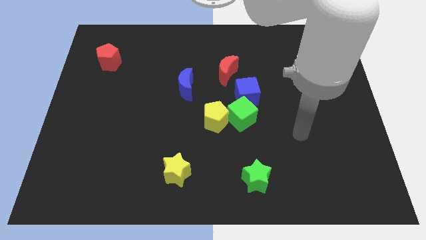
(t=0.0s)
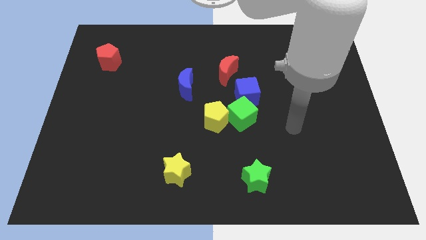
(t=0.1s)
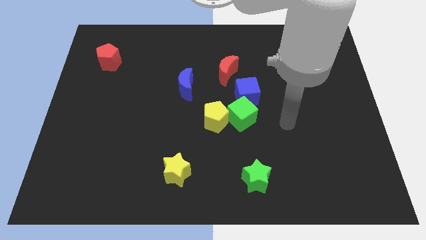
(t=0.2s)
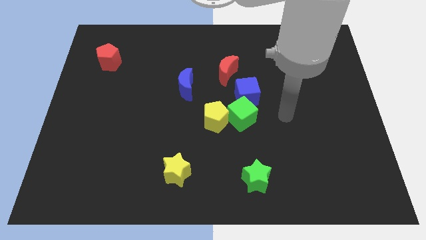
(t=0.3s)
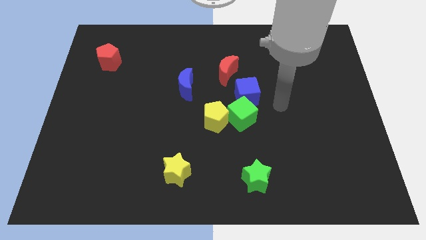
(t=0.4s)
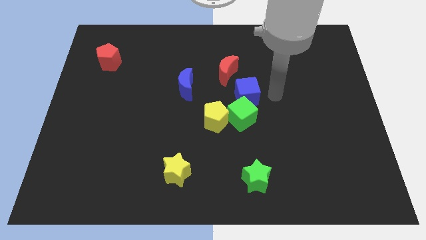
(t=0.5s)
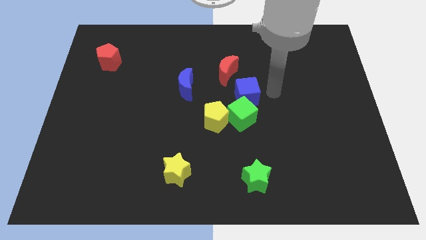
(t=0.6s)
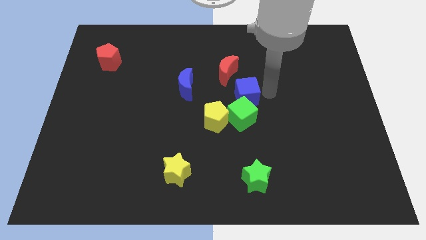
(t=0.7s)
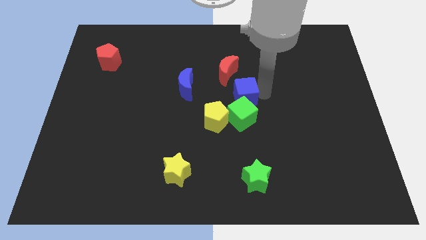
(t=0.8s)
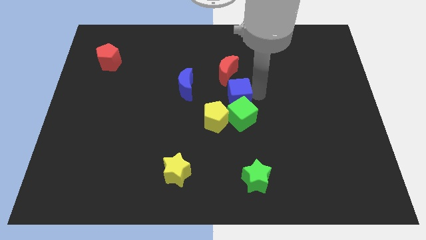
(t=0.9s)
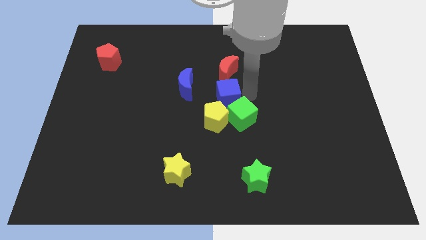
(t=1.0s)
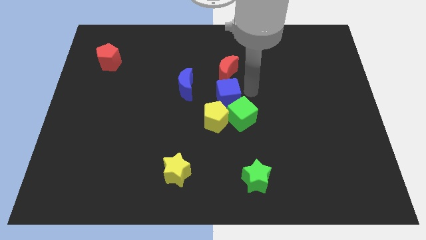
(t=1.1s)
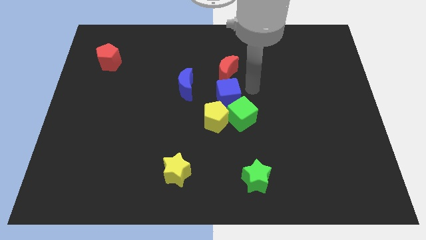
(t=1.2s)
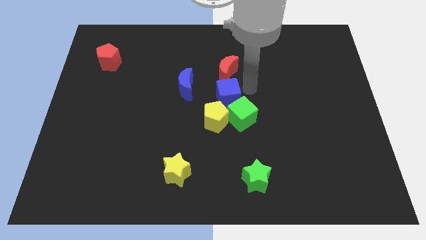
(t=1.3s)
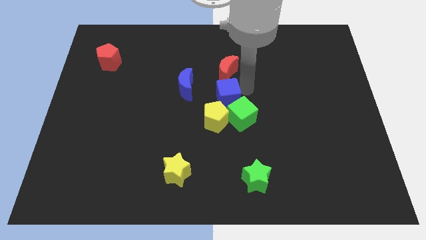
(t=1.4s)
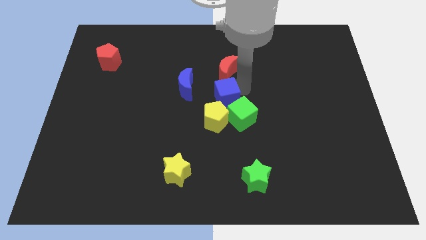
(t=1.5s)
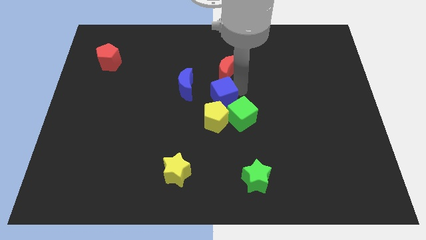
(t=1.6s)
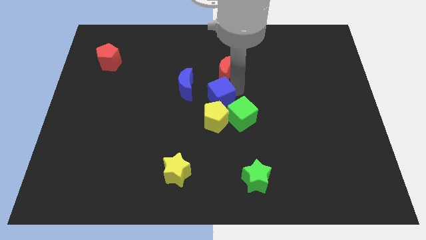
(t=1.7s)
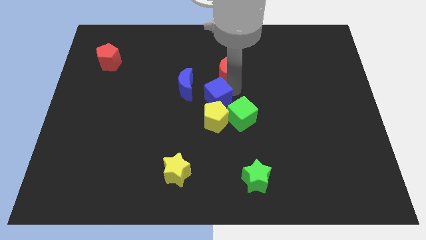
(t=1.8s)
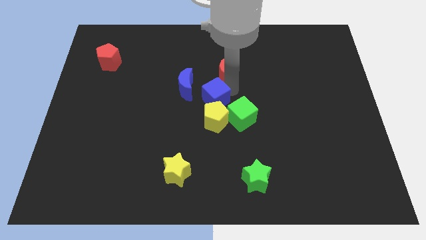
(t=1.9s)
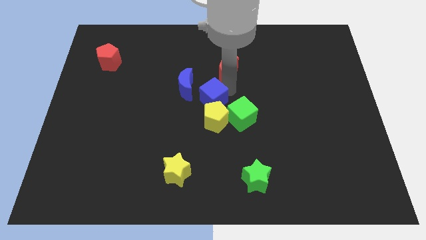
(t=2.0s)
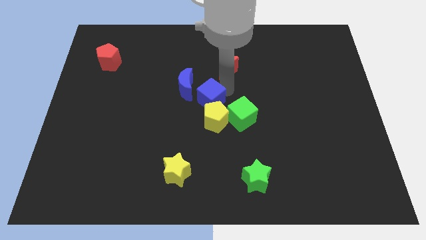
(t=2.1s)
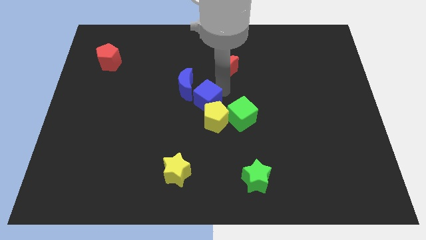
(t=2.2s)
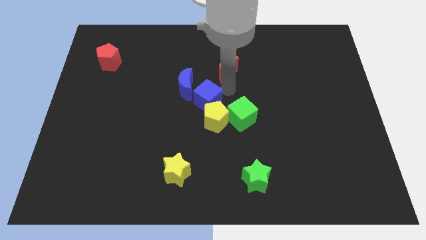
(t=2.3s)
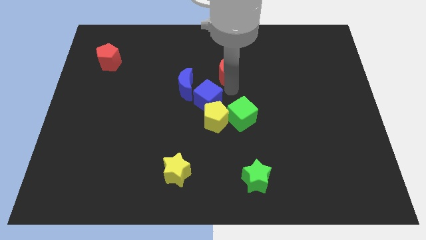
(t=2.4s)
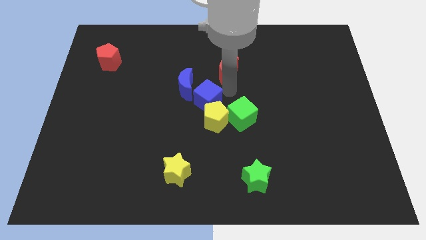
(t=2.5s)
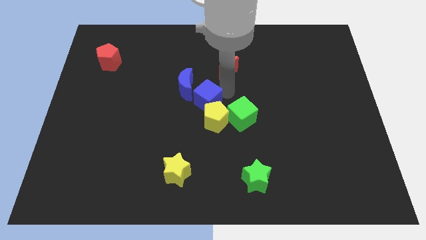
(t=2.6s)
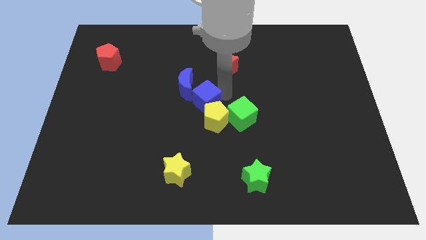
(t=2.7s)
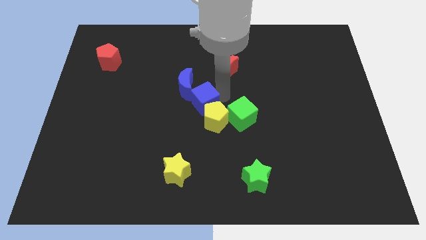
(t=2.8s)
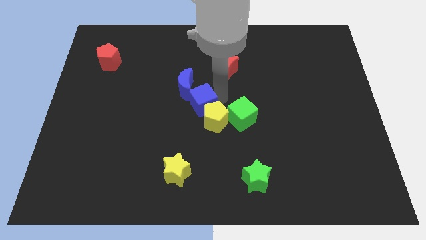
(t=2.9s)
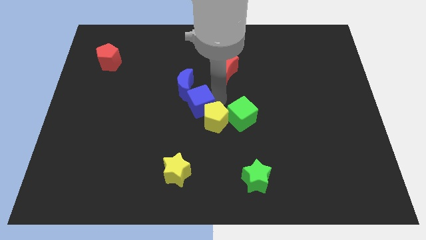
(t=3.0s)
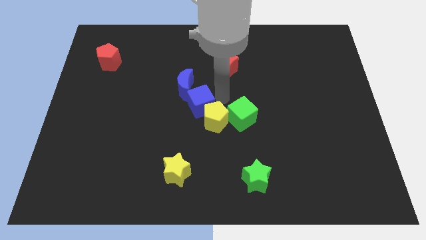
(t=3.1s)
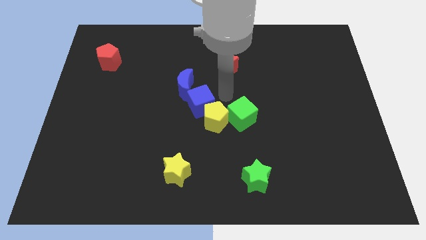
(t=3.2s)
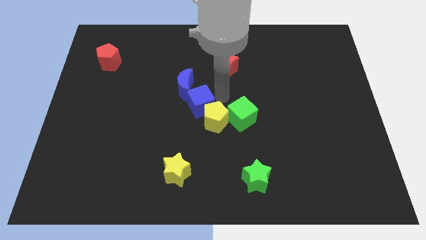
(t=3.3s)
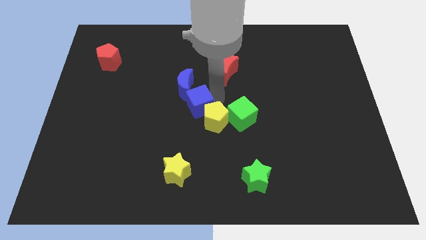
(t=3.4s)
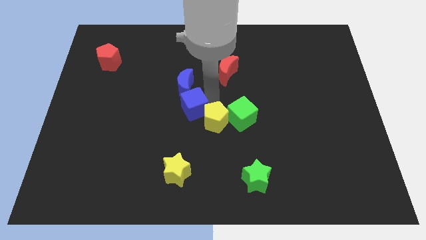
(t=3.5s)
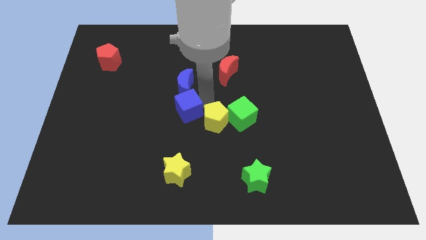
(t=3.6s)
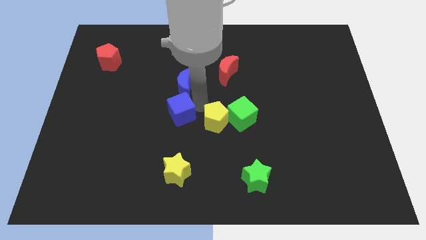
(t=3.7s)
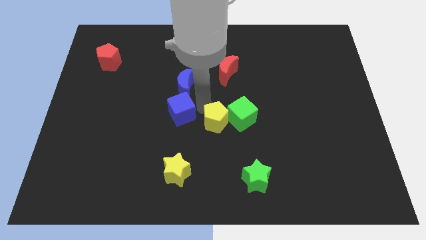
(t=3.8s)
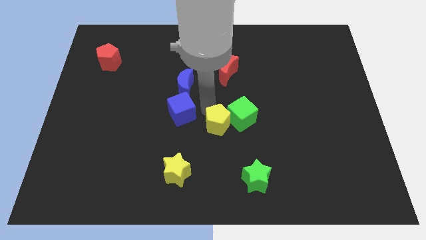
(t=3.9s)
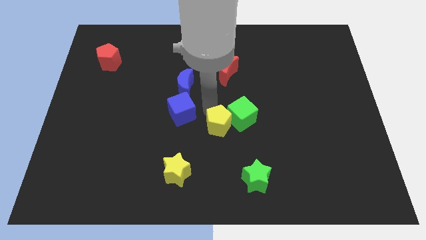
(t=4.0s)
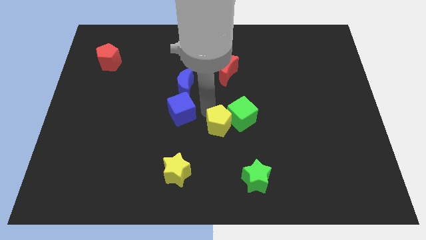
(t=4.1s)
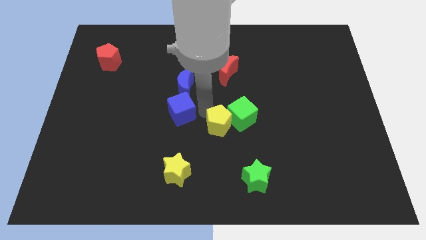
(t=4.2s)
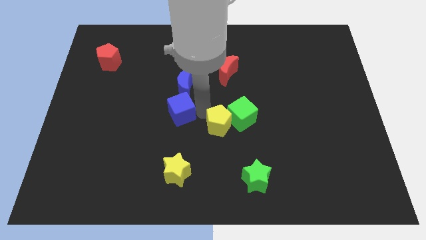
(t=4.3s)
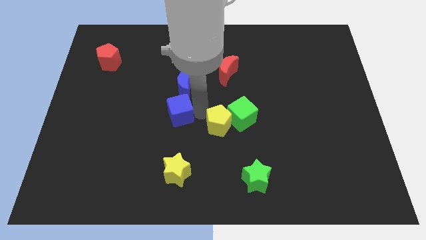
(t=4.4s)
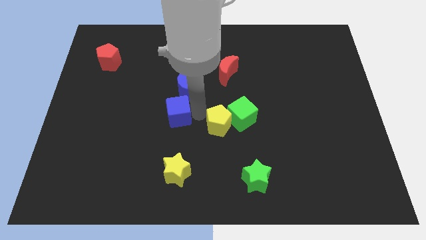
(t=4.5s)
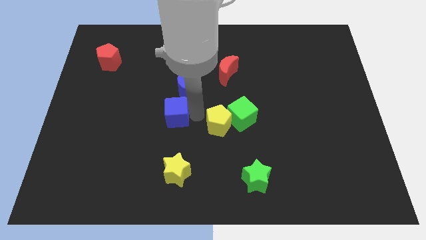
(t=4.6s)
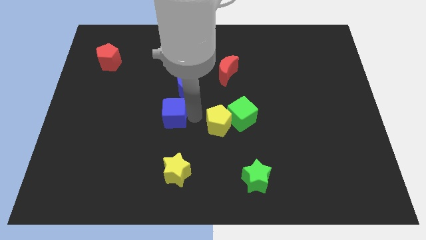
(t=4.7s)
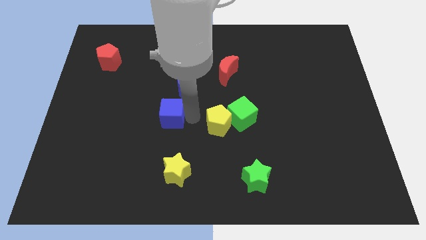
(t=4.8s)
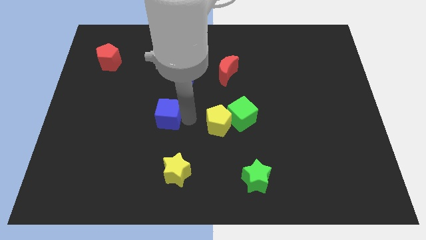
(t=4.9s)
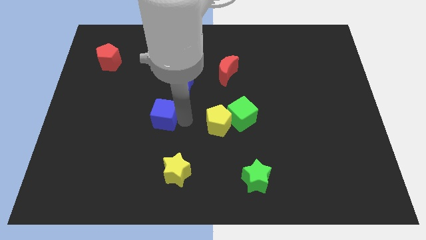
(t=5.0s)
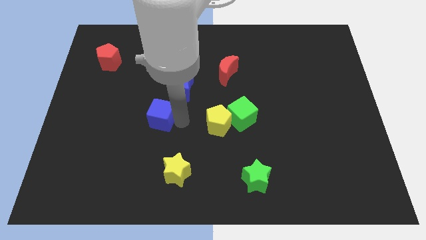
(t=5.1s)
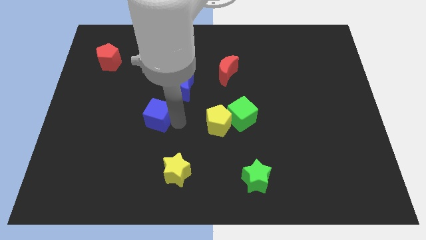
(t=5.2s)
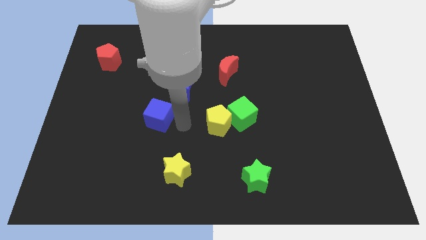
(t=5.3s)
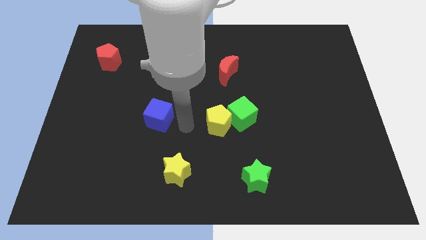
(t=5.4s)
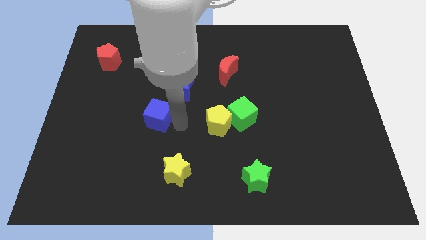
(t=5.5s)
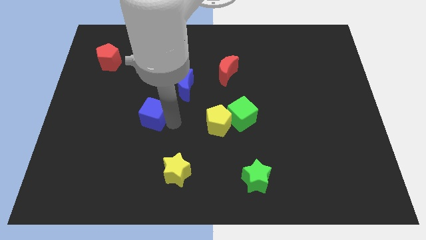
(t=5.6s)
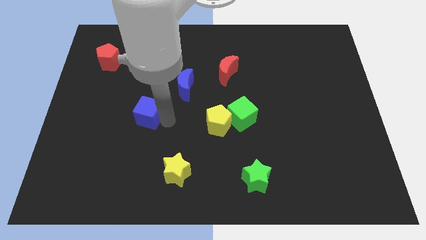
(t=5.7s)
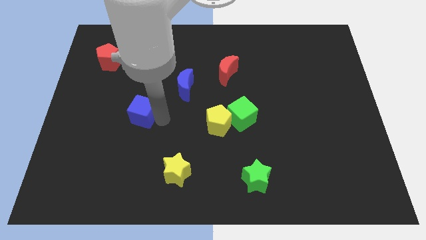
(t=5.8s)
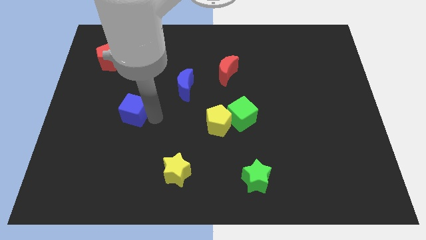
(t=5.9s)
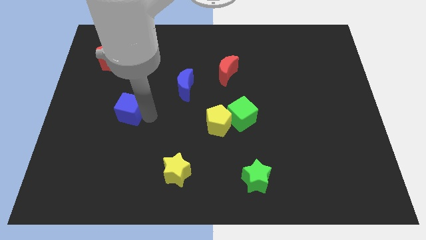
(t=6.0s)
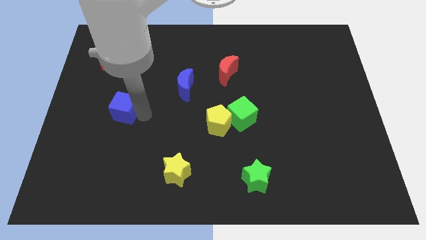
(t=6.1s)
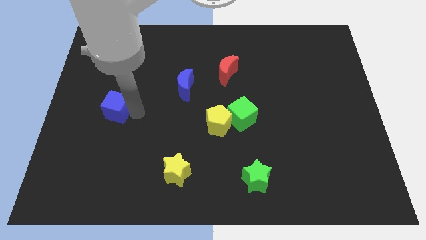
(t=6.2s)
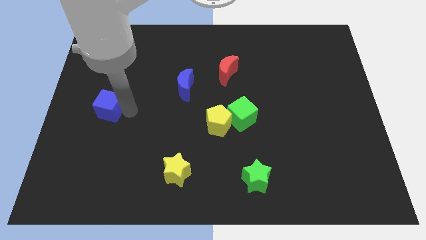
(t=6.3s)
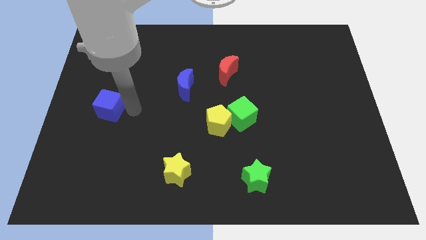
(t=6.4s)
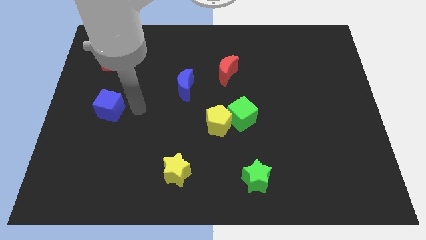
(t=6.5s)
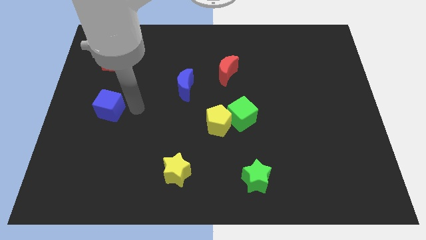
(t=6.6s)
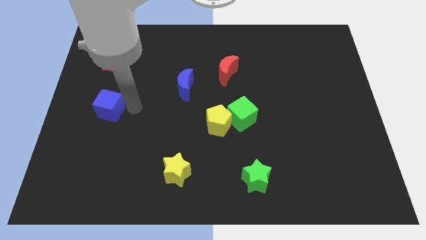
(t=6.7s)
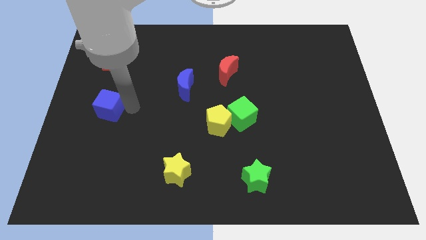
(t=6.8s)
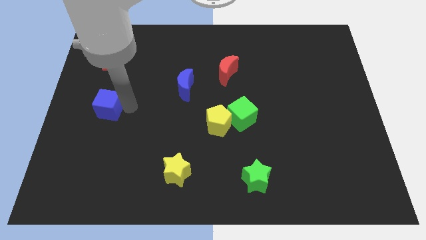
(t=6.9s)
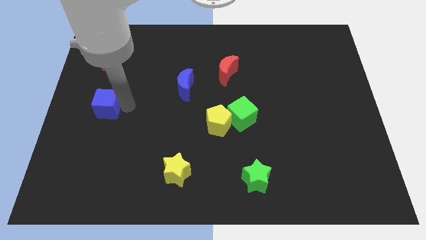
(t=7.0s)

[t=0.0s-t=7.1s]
put the blue cube to the left side

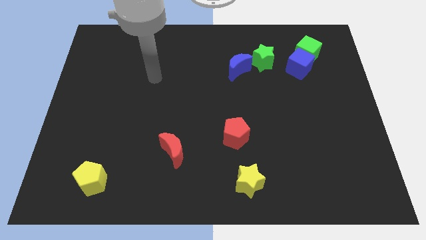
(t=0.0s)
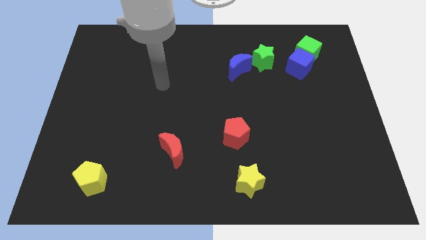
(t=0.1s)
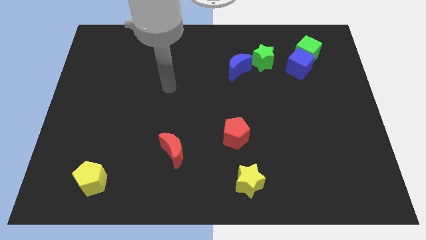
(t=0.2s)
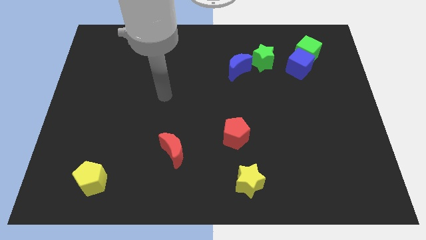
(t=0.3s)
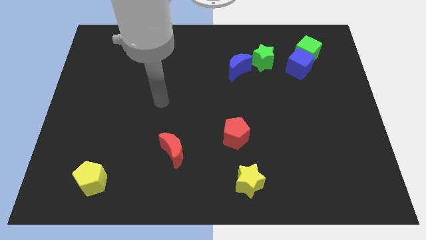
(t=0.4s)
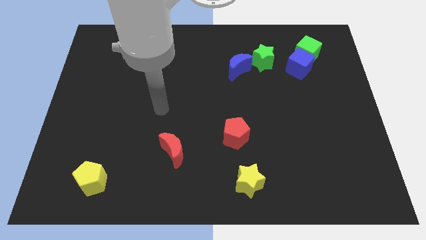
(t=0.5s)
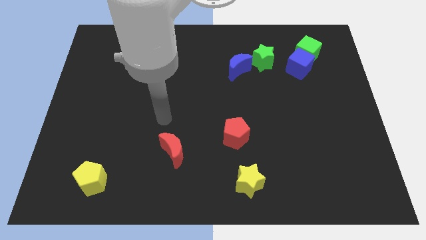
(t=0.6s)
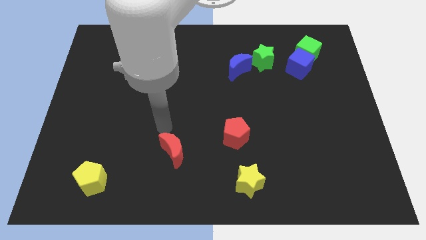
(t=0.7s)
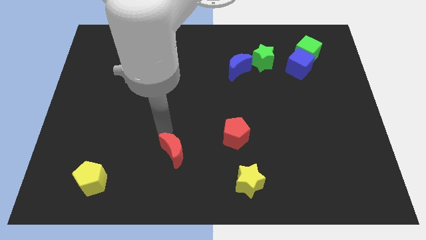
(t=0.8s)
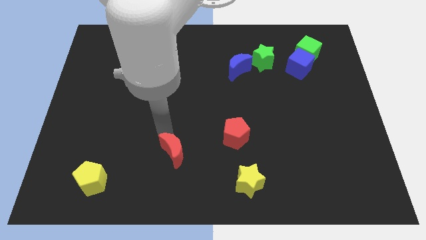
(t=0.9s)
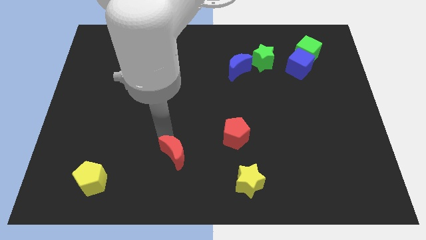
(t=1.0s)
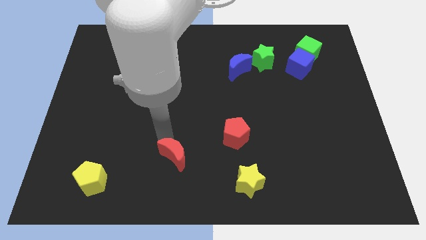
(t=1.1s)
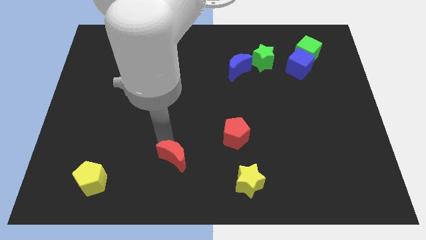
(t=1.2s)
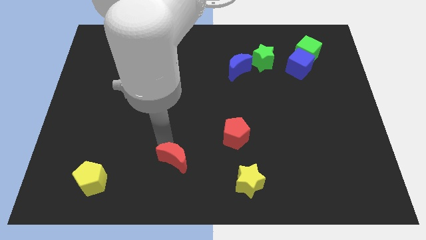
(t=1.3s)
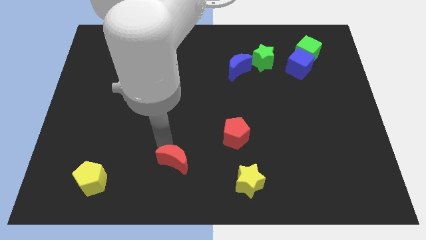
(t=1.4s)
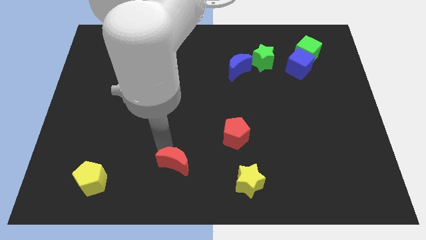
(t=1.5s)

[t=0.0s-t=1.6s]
push the red moon to the bottom
